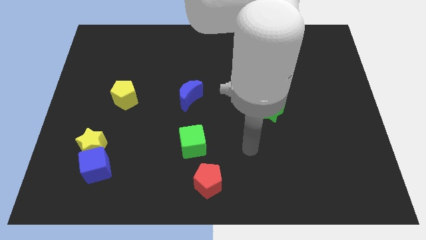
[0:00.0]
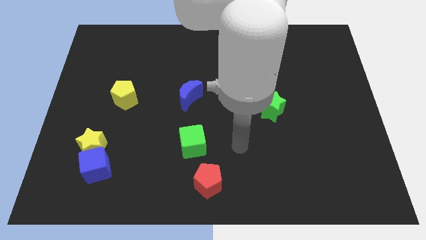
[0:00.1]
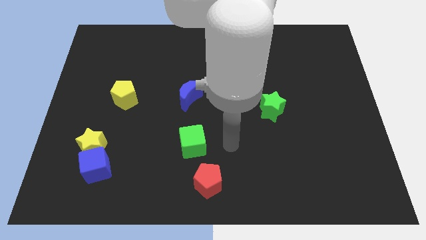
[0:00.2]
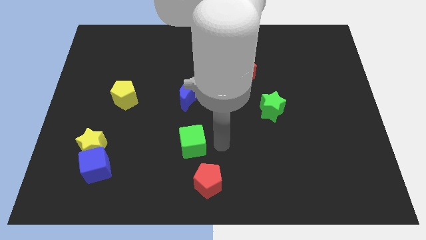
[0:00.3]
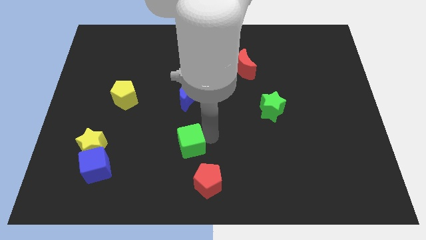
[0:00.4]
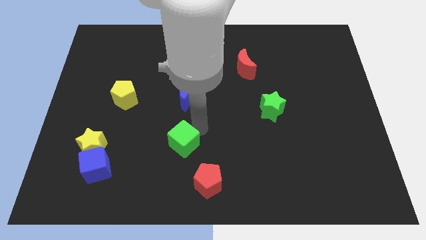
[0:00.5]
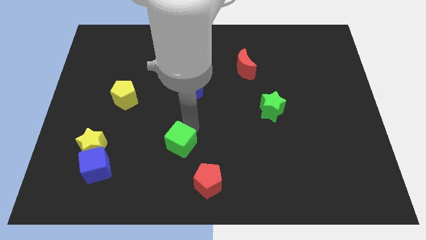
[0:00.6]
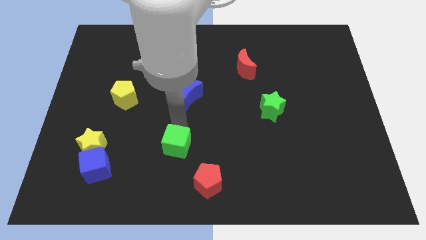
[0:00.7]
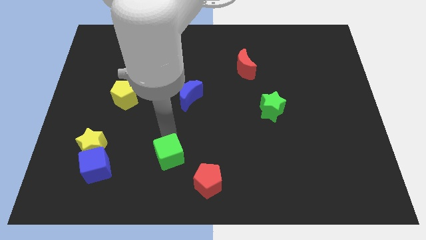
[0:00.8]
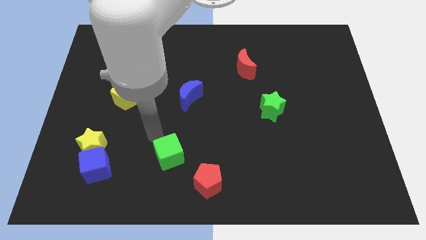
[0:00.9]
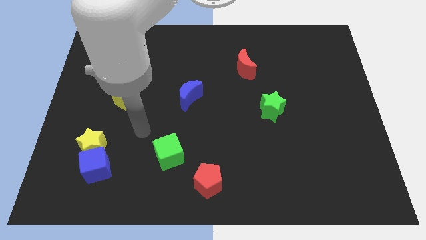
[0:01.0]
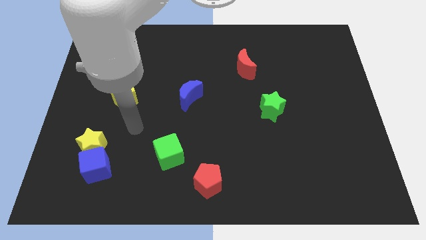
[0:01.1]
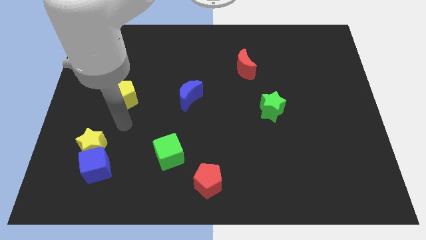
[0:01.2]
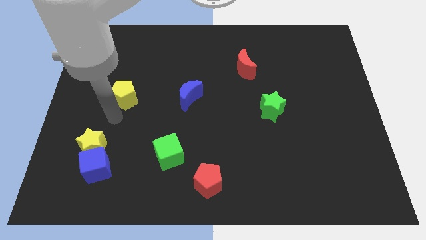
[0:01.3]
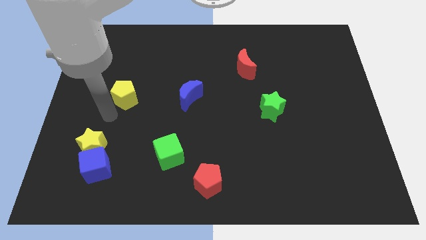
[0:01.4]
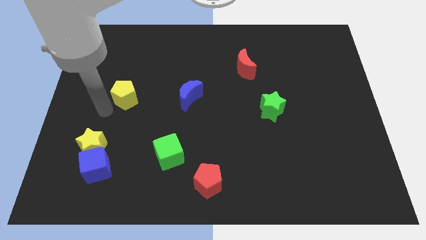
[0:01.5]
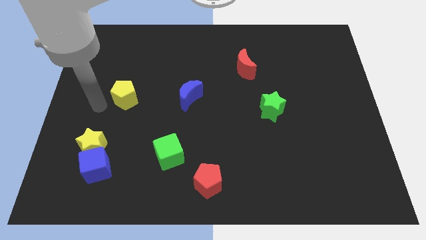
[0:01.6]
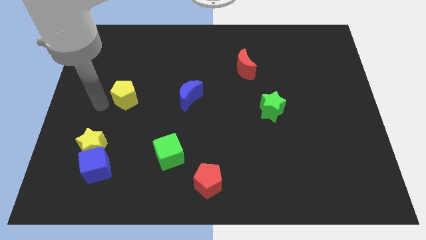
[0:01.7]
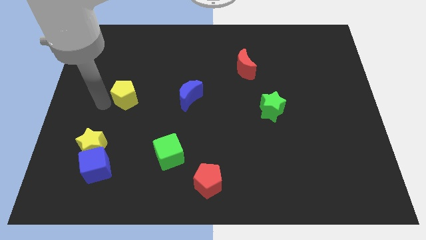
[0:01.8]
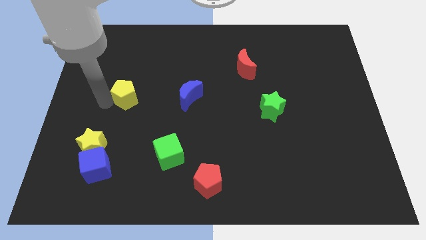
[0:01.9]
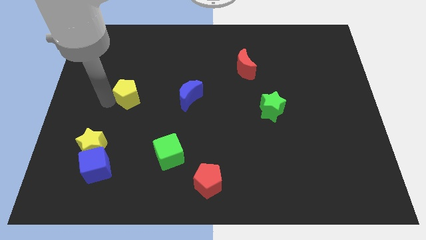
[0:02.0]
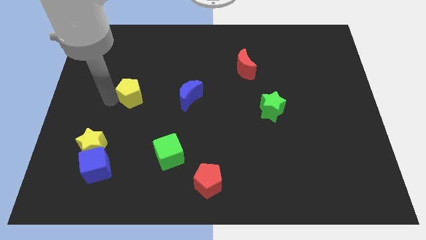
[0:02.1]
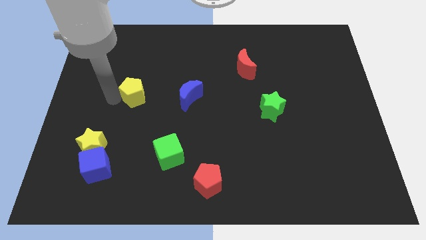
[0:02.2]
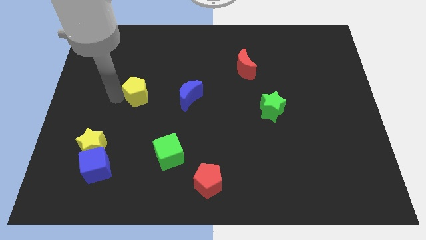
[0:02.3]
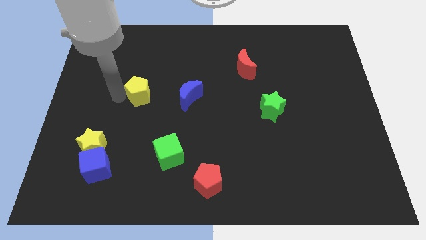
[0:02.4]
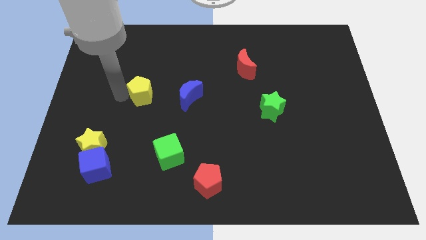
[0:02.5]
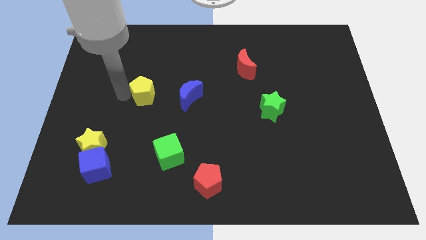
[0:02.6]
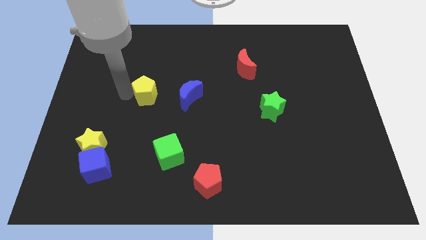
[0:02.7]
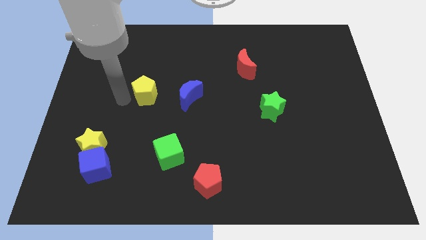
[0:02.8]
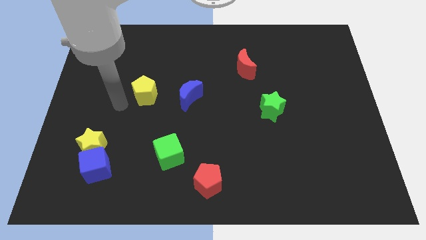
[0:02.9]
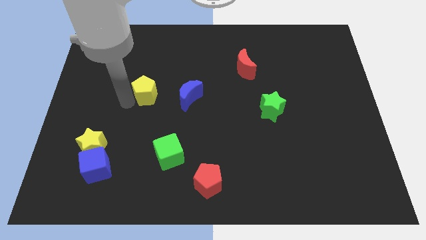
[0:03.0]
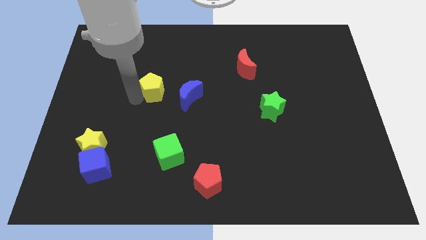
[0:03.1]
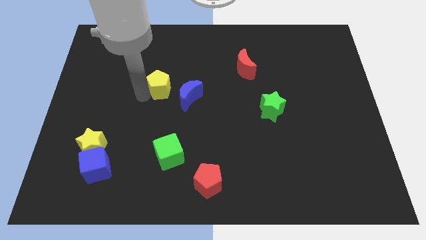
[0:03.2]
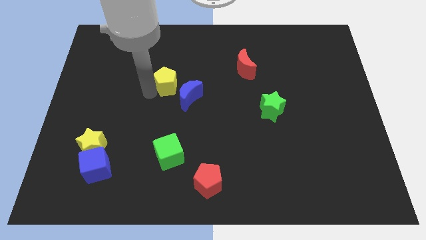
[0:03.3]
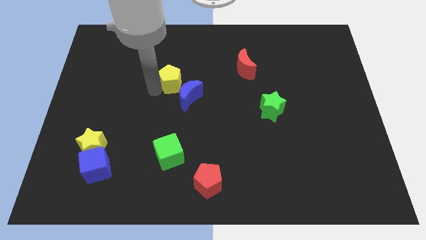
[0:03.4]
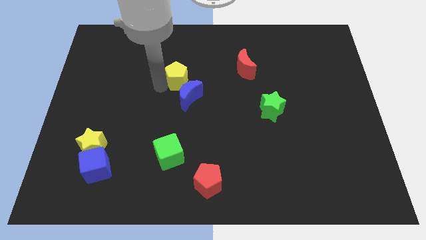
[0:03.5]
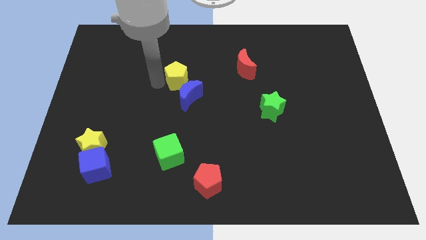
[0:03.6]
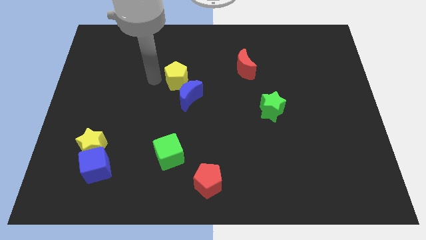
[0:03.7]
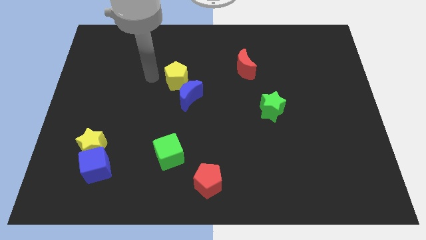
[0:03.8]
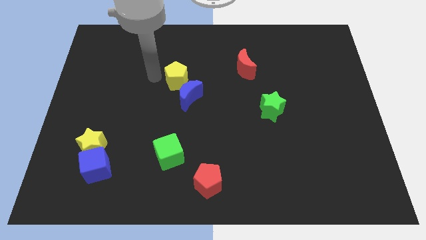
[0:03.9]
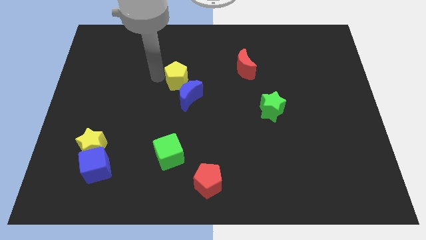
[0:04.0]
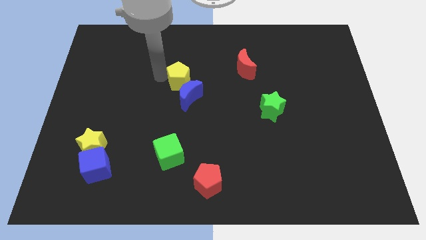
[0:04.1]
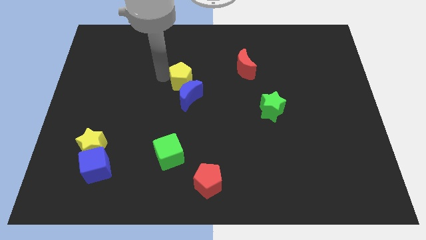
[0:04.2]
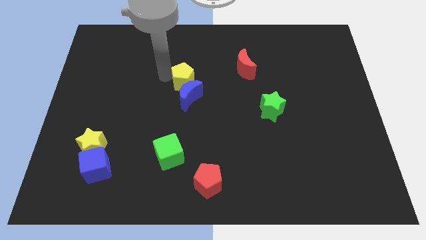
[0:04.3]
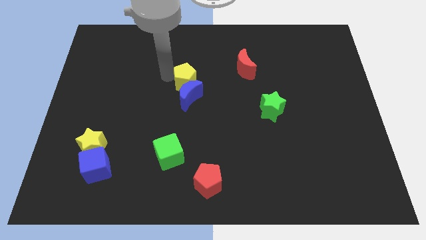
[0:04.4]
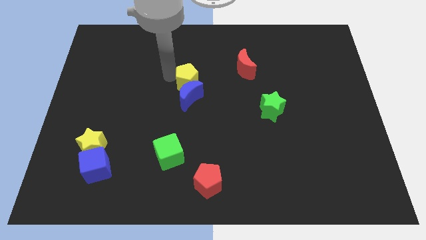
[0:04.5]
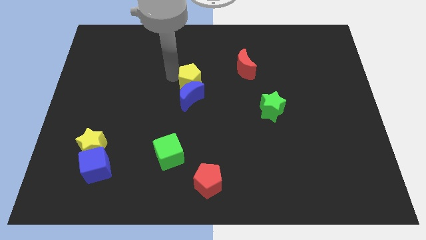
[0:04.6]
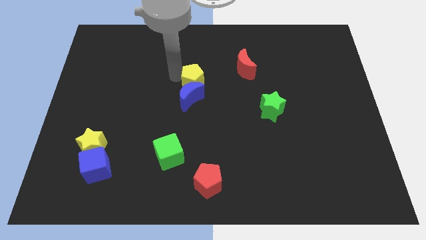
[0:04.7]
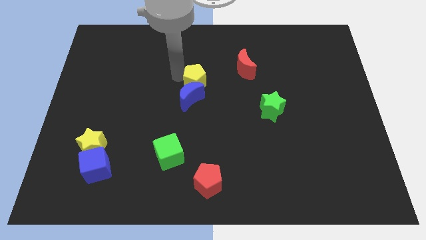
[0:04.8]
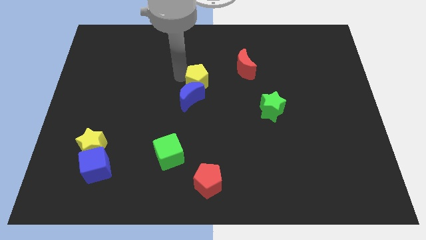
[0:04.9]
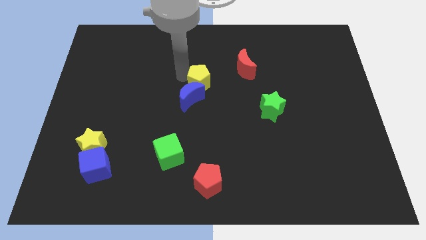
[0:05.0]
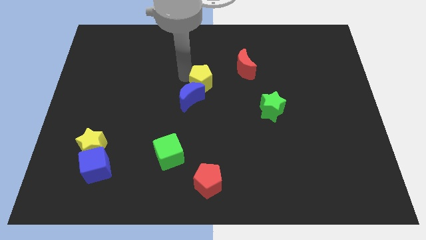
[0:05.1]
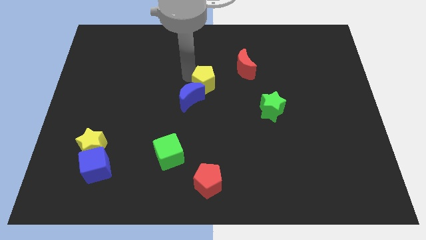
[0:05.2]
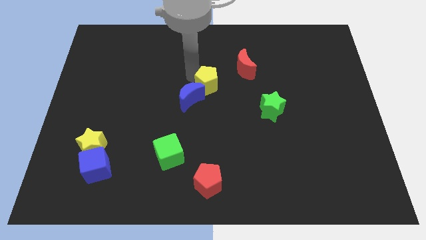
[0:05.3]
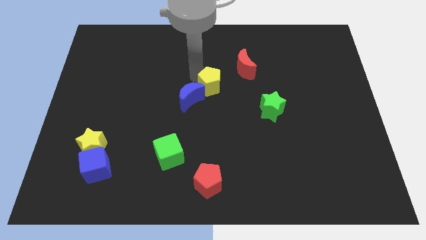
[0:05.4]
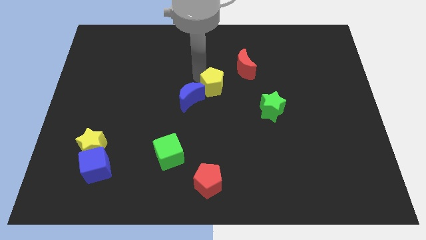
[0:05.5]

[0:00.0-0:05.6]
push the yellow pentagon to the right

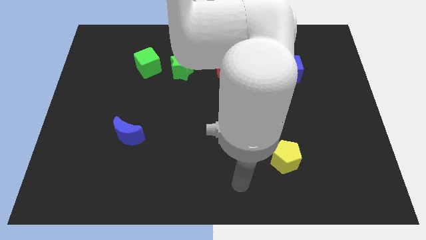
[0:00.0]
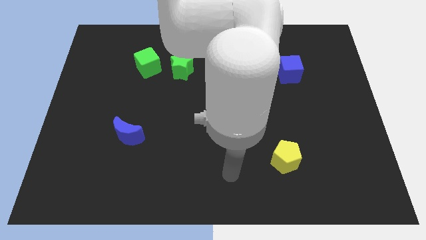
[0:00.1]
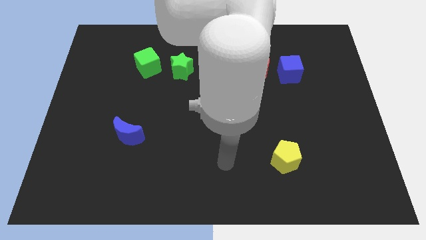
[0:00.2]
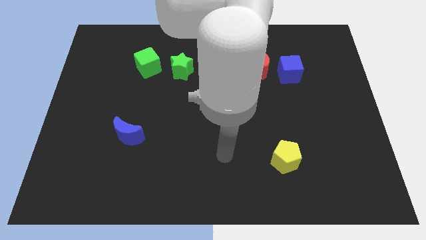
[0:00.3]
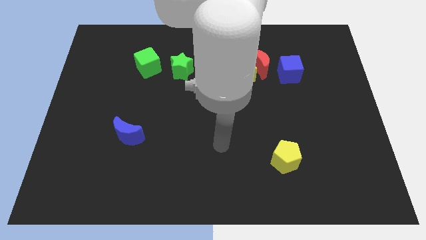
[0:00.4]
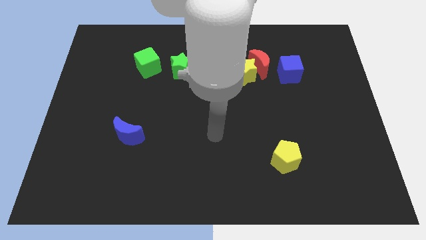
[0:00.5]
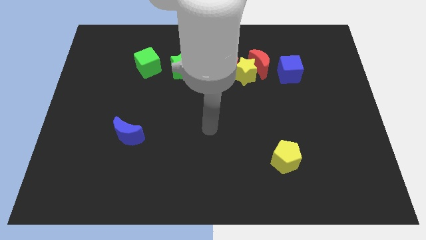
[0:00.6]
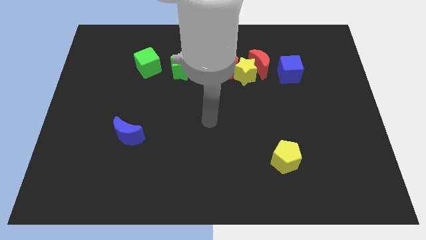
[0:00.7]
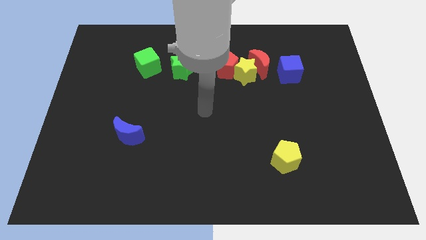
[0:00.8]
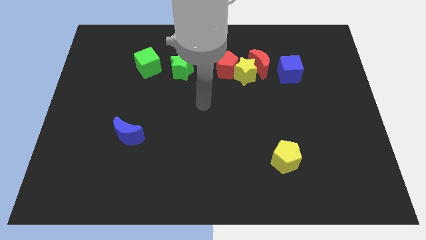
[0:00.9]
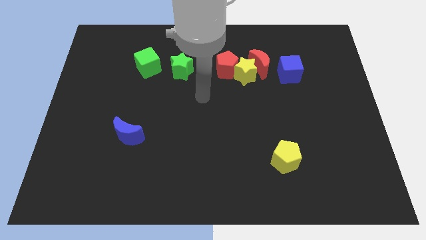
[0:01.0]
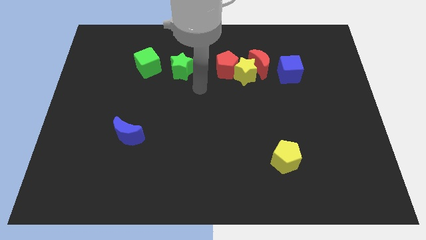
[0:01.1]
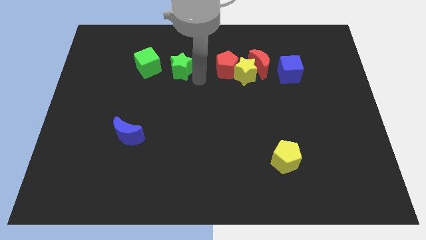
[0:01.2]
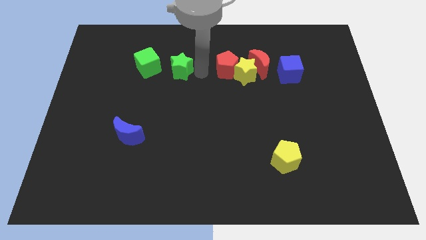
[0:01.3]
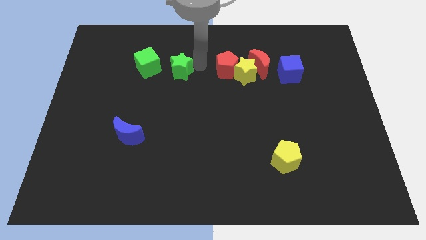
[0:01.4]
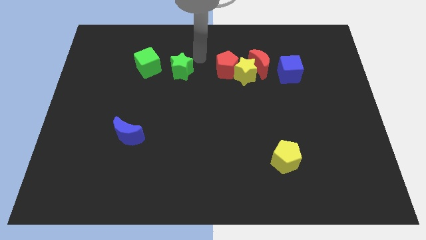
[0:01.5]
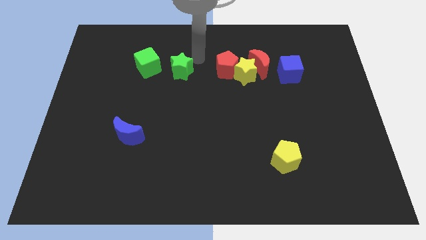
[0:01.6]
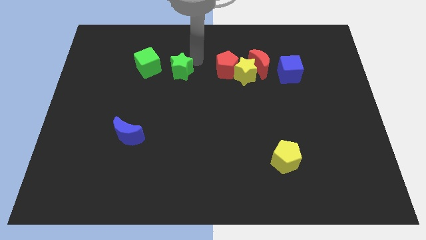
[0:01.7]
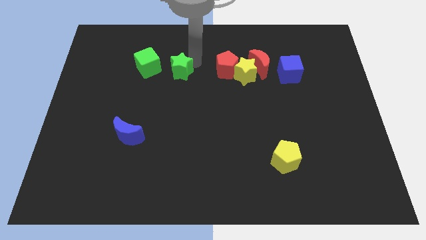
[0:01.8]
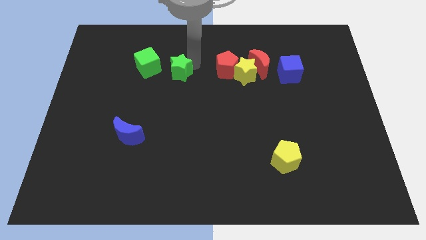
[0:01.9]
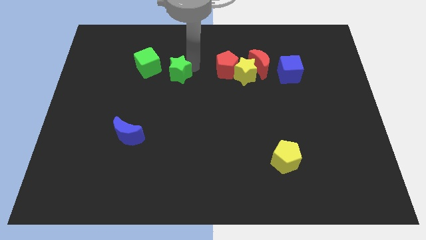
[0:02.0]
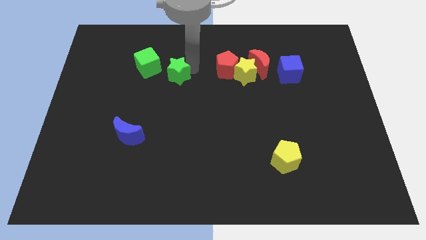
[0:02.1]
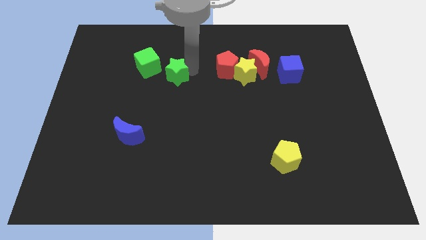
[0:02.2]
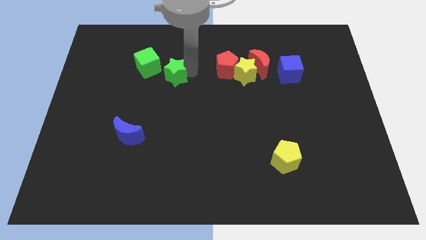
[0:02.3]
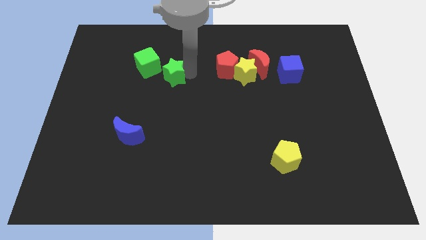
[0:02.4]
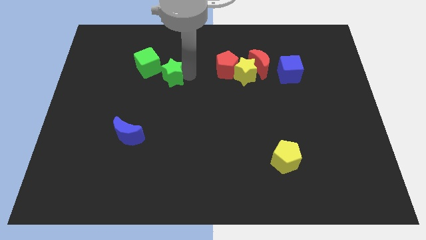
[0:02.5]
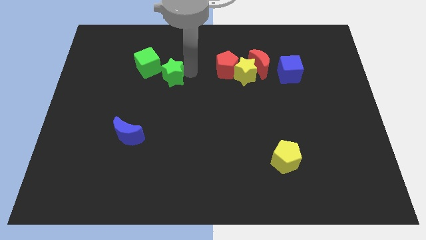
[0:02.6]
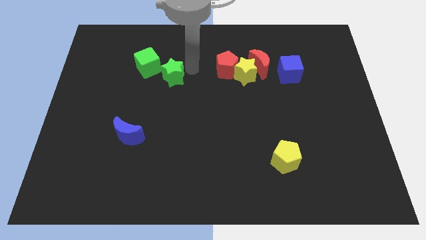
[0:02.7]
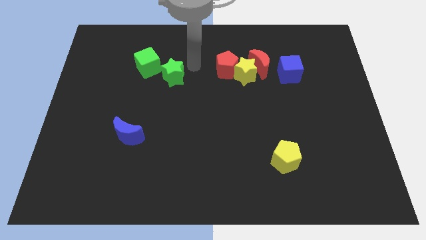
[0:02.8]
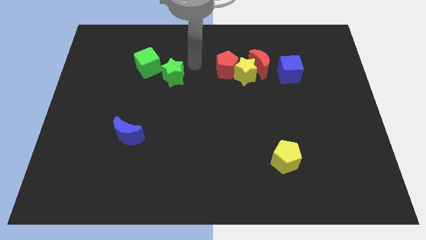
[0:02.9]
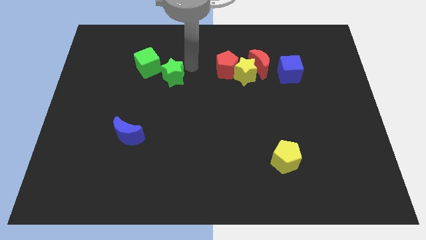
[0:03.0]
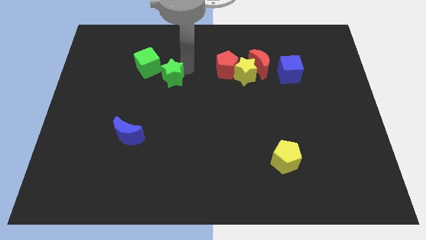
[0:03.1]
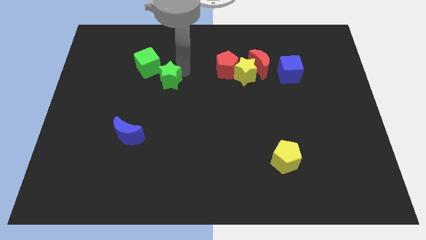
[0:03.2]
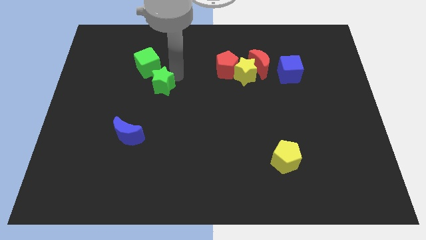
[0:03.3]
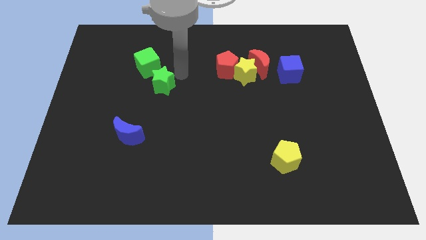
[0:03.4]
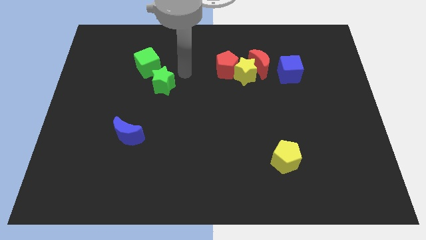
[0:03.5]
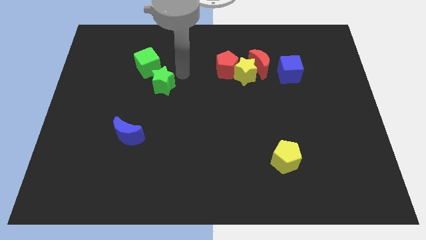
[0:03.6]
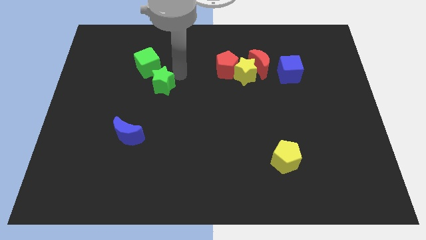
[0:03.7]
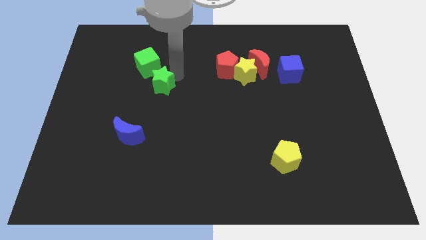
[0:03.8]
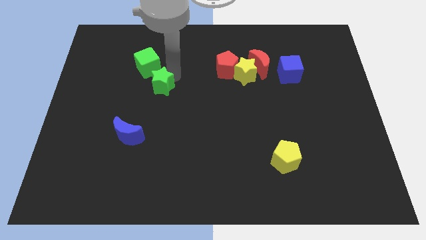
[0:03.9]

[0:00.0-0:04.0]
slightly push the green star down and left diagonally
